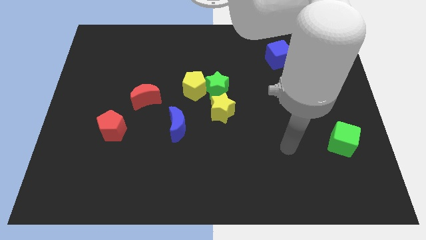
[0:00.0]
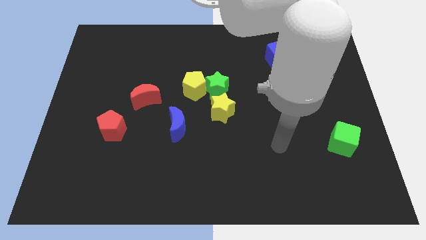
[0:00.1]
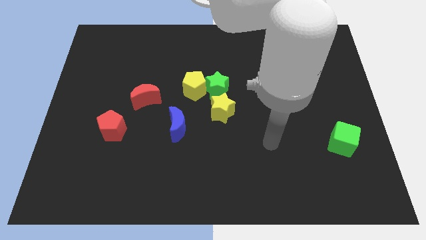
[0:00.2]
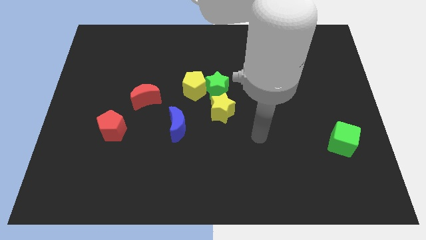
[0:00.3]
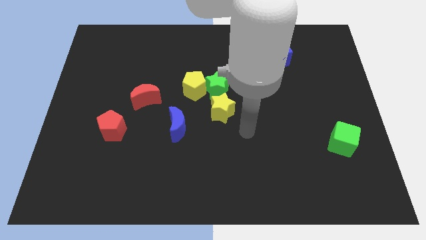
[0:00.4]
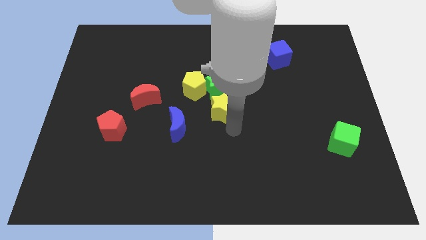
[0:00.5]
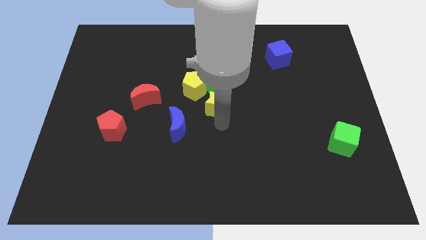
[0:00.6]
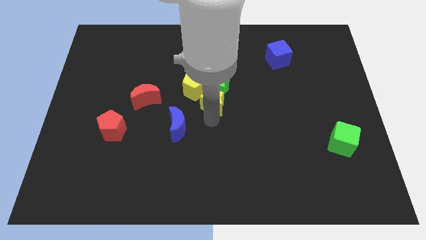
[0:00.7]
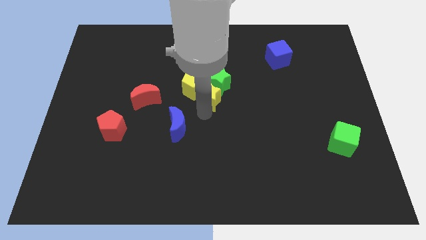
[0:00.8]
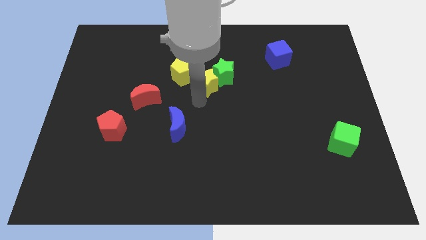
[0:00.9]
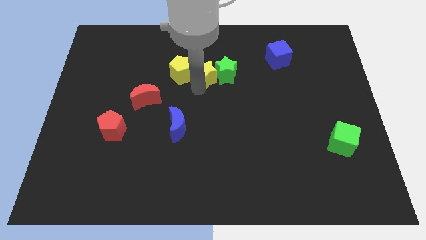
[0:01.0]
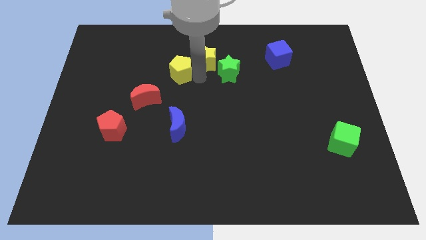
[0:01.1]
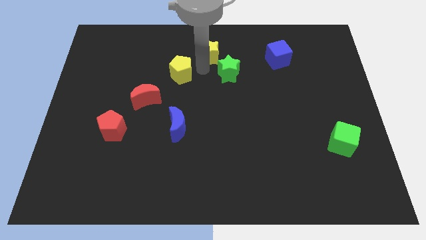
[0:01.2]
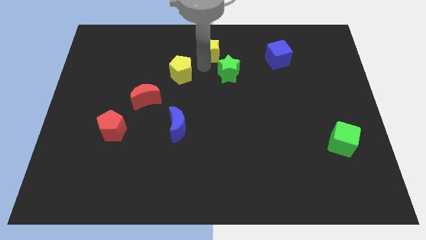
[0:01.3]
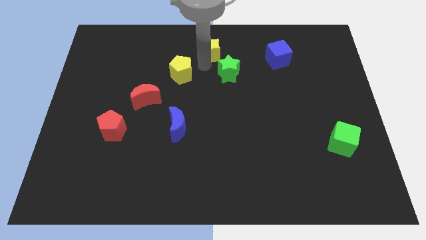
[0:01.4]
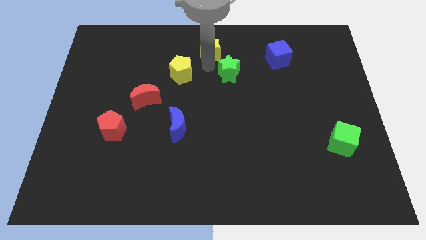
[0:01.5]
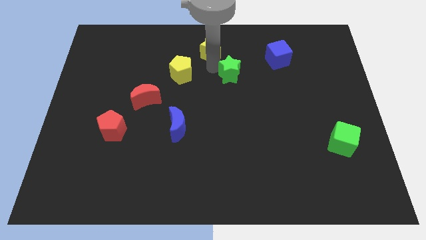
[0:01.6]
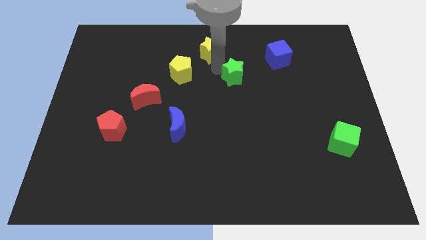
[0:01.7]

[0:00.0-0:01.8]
move the green star away from the yellow pentagon and yellow star

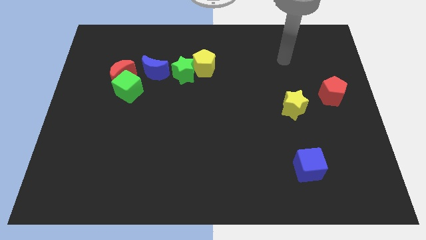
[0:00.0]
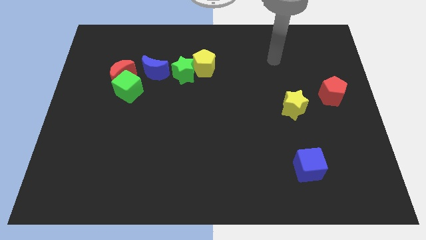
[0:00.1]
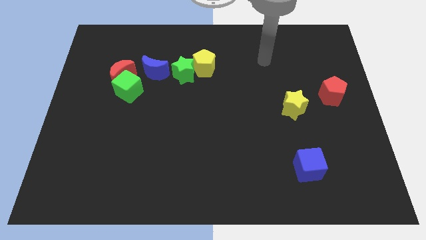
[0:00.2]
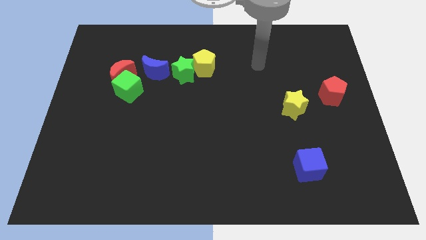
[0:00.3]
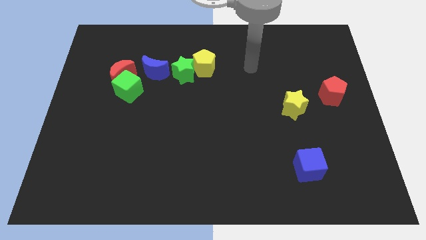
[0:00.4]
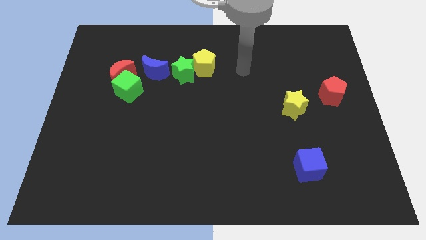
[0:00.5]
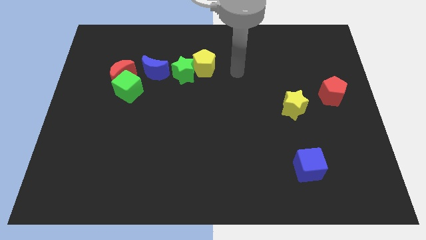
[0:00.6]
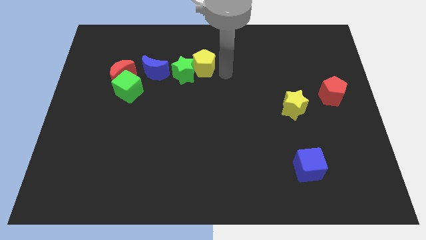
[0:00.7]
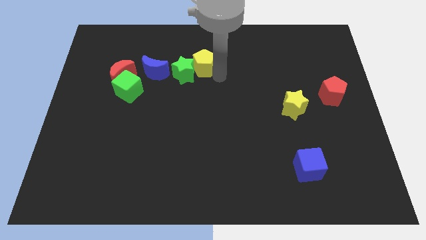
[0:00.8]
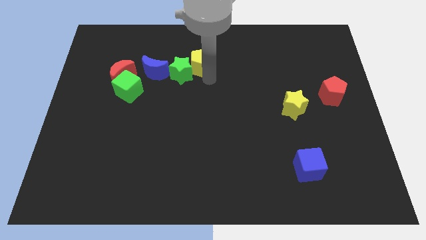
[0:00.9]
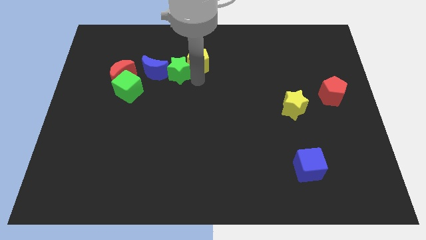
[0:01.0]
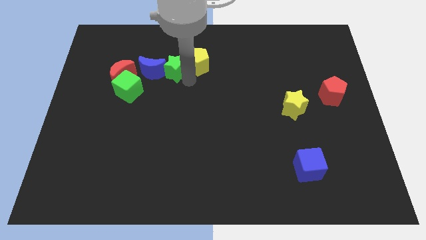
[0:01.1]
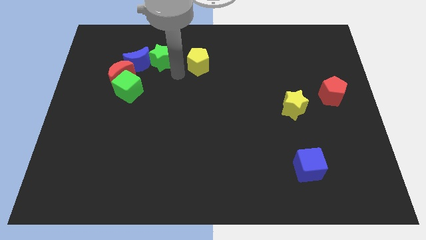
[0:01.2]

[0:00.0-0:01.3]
pull the yellow pentagon apart from the green star

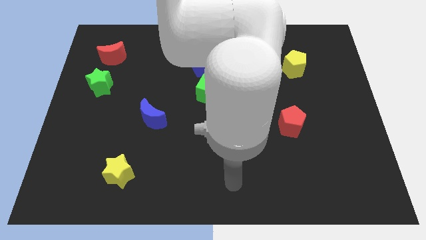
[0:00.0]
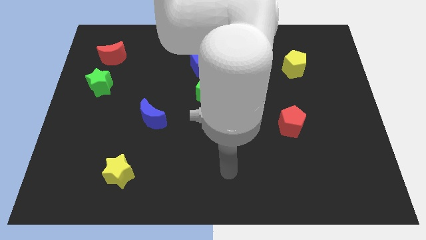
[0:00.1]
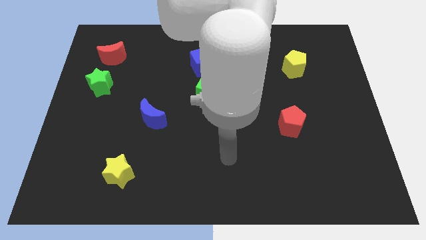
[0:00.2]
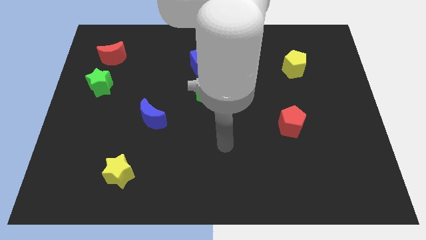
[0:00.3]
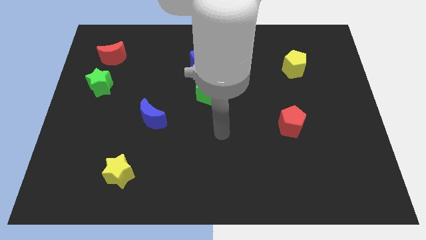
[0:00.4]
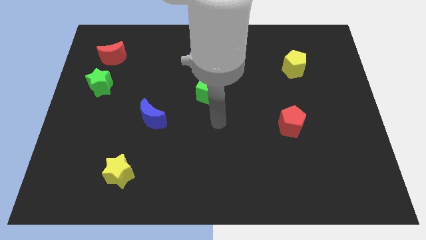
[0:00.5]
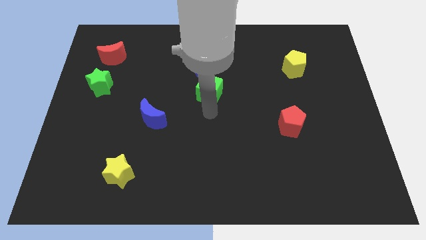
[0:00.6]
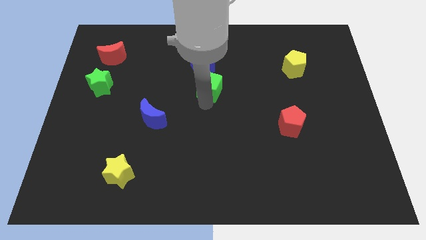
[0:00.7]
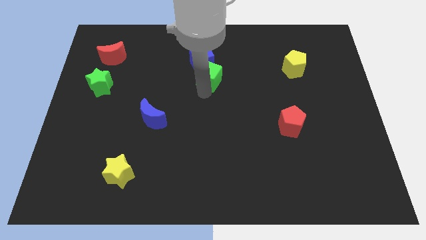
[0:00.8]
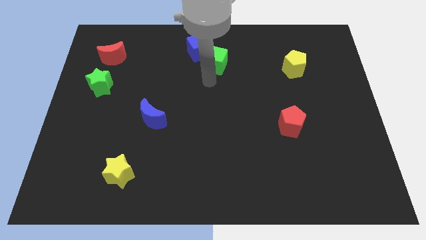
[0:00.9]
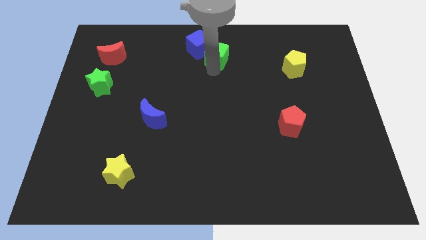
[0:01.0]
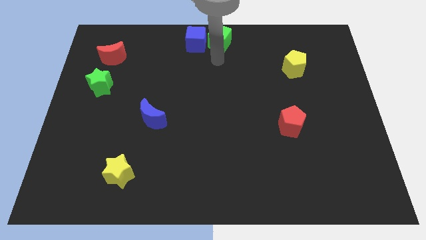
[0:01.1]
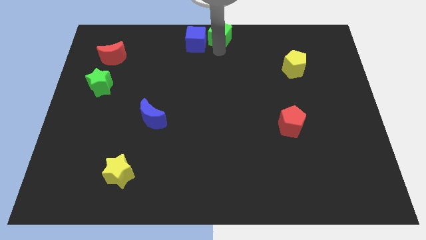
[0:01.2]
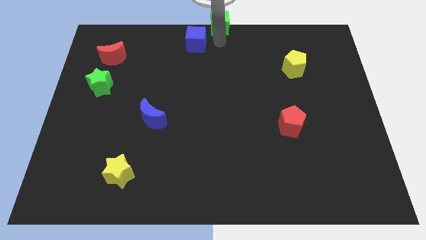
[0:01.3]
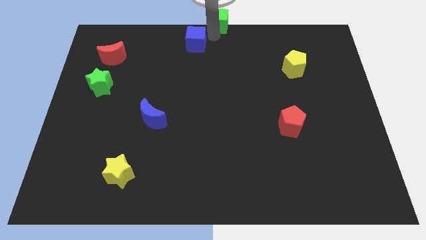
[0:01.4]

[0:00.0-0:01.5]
move the blue cube away from the green cube

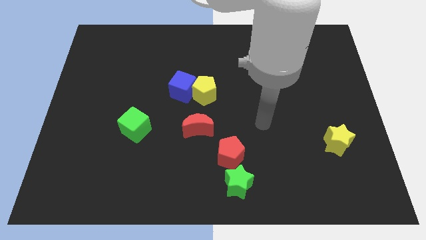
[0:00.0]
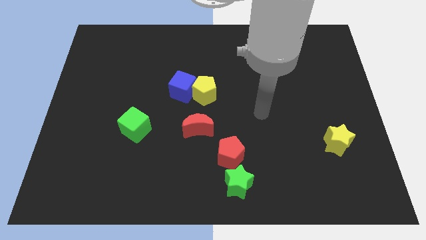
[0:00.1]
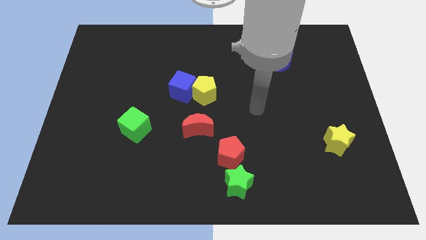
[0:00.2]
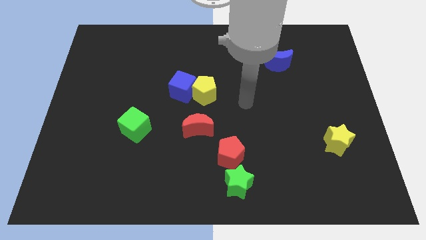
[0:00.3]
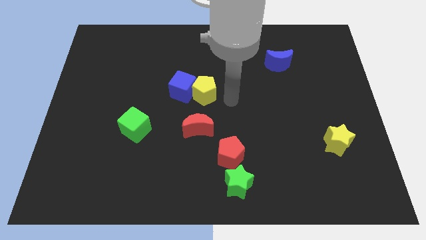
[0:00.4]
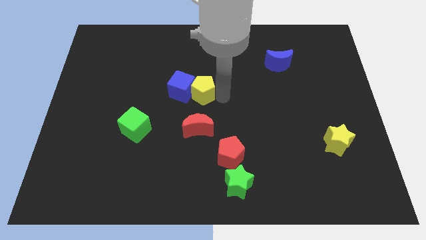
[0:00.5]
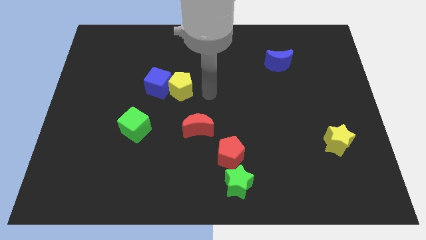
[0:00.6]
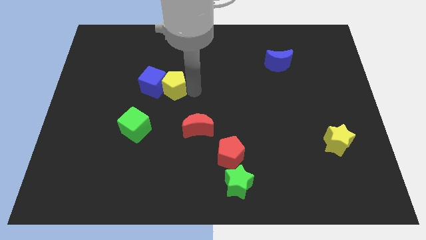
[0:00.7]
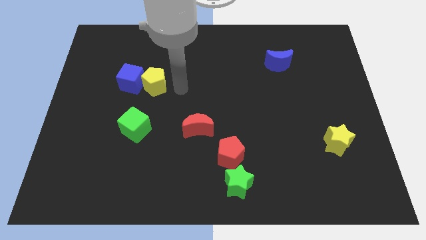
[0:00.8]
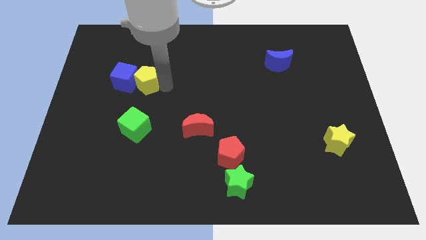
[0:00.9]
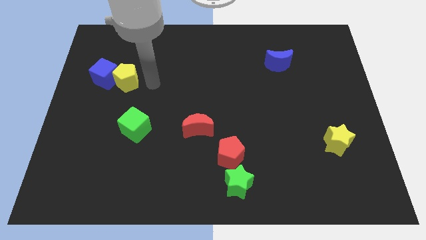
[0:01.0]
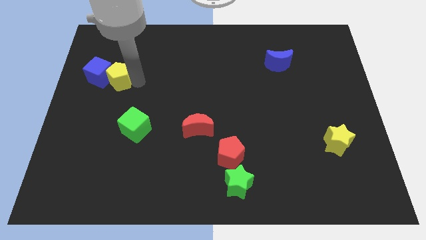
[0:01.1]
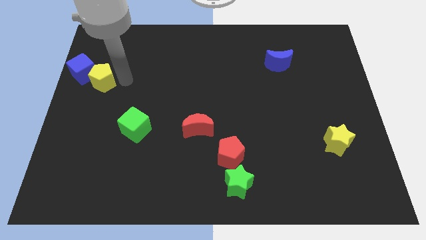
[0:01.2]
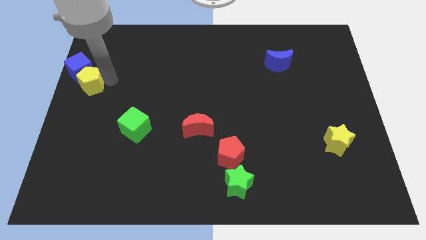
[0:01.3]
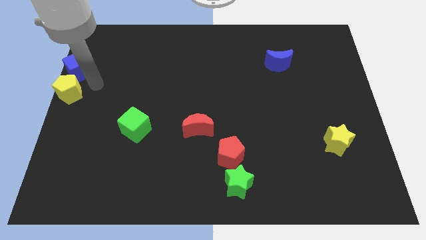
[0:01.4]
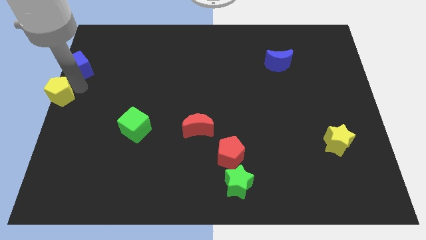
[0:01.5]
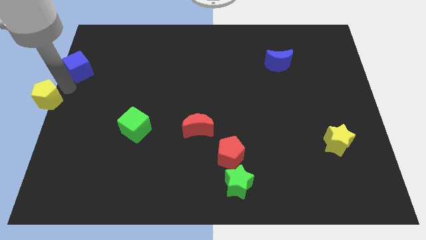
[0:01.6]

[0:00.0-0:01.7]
separate the blue cube from the yellow pentagon

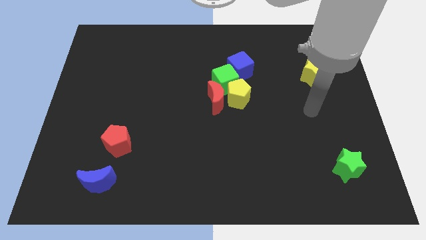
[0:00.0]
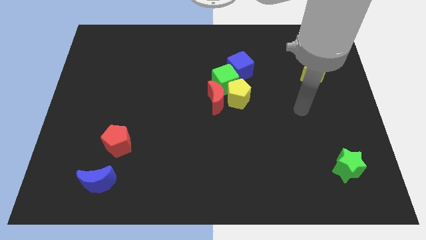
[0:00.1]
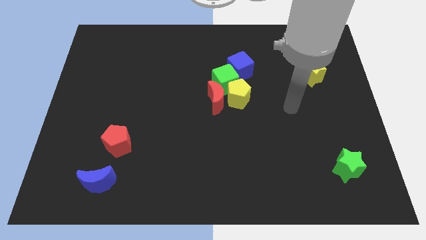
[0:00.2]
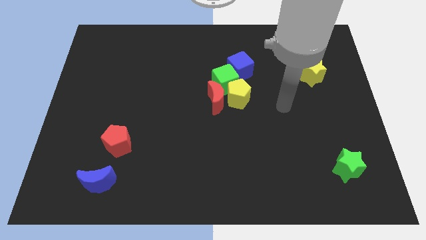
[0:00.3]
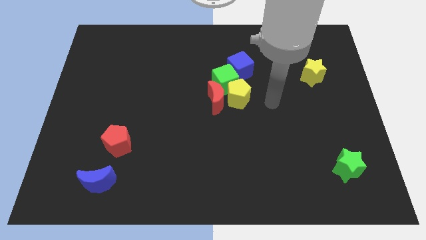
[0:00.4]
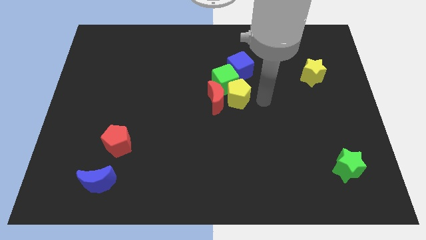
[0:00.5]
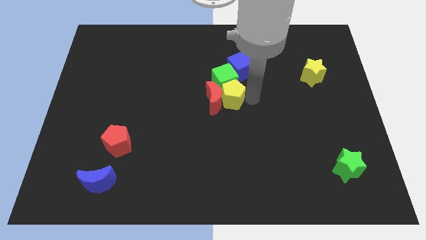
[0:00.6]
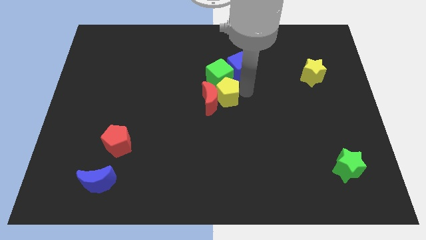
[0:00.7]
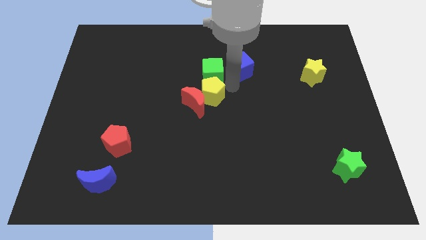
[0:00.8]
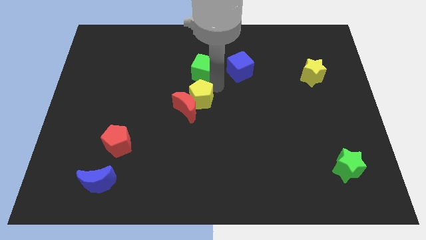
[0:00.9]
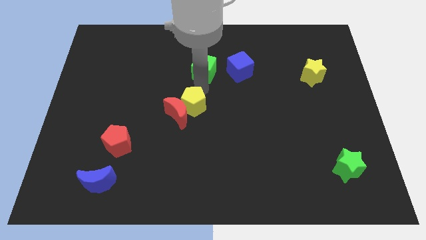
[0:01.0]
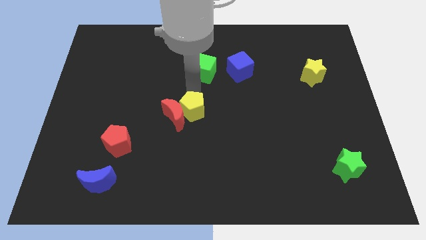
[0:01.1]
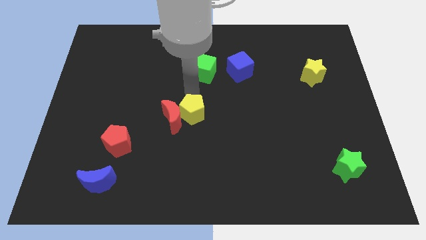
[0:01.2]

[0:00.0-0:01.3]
move the red moon away from the yellow pentagon and green cube

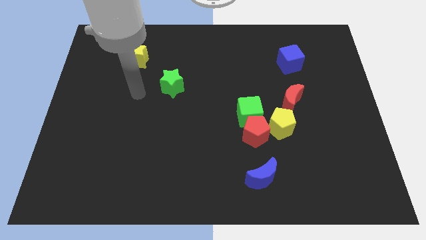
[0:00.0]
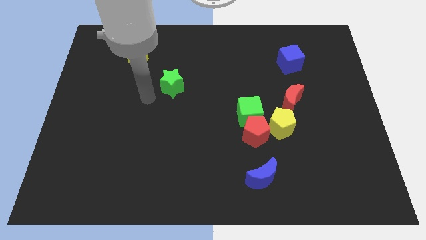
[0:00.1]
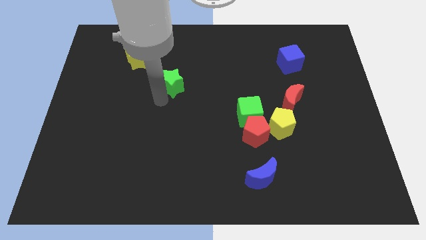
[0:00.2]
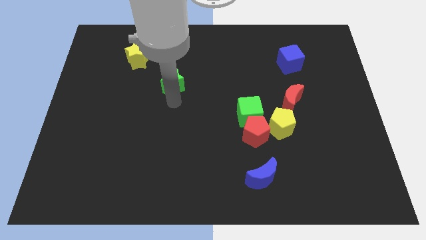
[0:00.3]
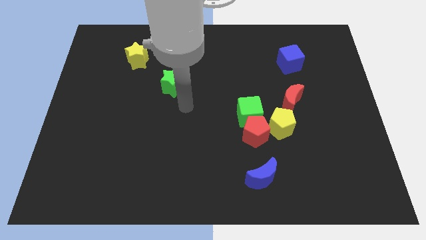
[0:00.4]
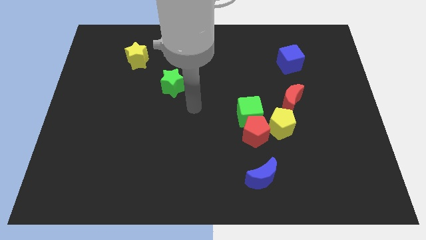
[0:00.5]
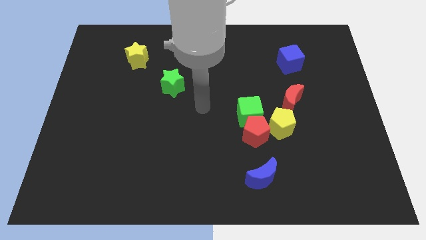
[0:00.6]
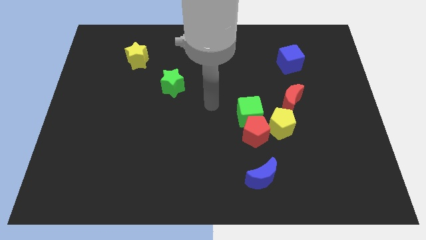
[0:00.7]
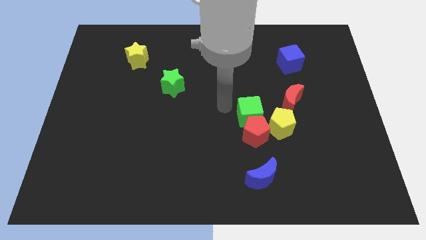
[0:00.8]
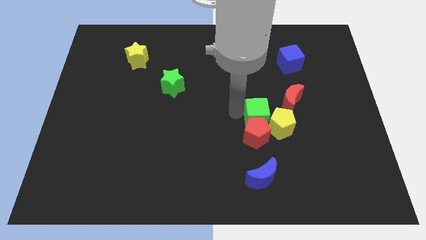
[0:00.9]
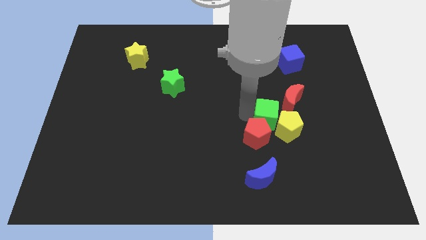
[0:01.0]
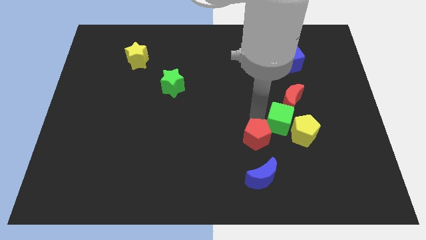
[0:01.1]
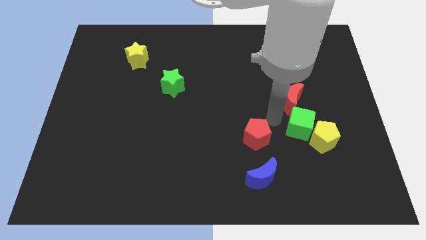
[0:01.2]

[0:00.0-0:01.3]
pull the red pentagon apart from the green cube and yellow pentagon

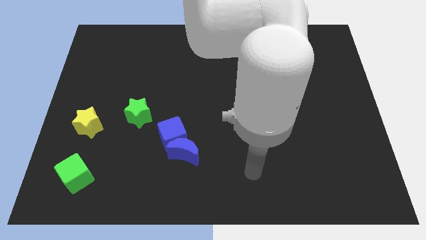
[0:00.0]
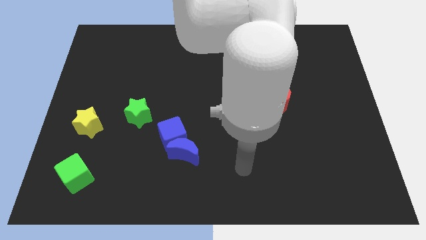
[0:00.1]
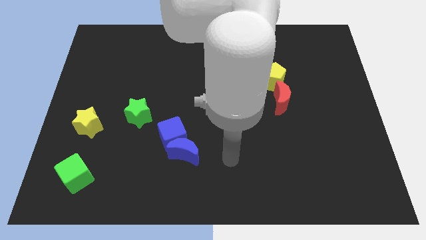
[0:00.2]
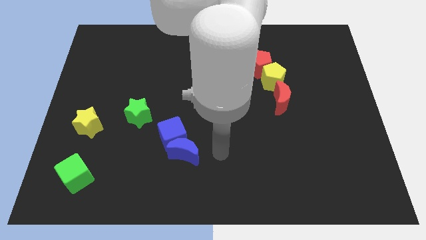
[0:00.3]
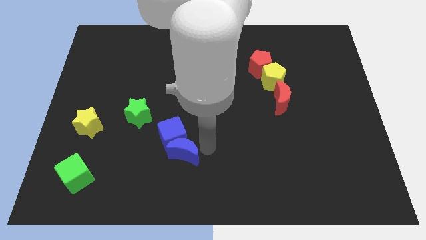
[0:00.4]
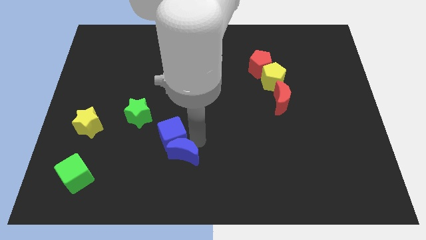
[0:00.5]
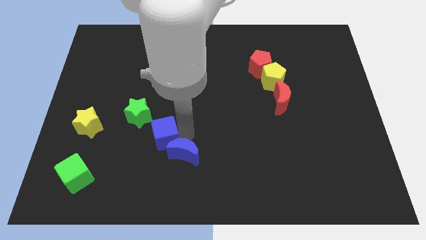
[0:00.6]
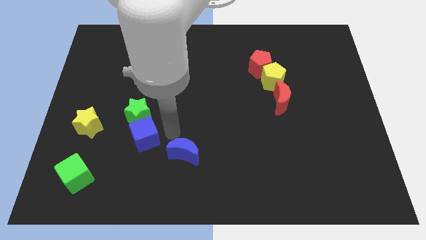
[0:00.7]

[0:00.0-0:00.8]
pull the blue moon apart from the blue cube
